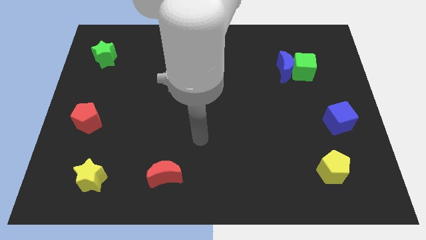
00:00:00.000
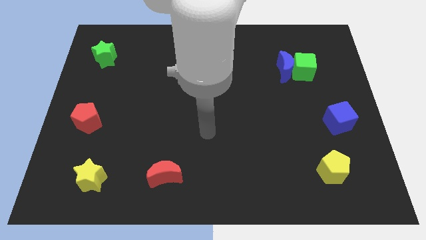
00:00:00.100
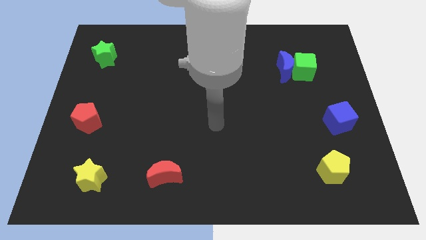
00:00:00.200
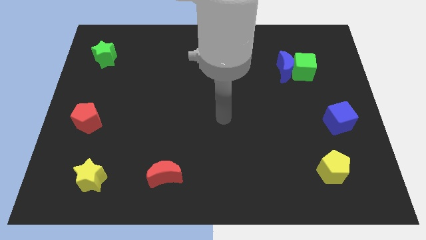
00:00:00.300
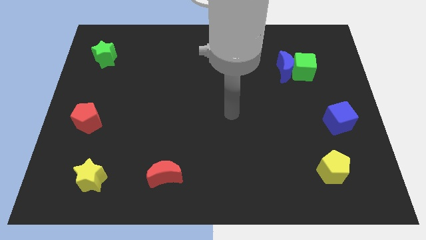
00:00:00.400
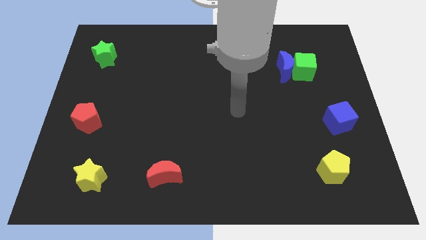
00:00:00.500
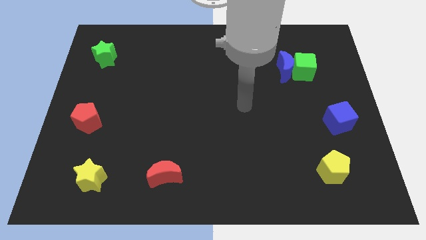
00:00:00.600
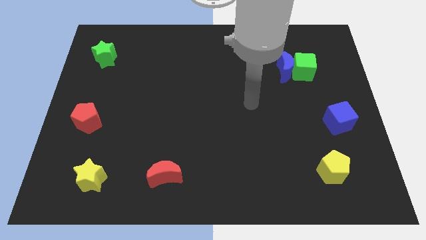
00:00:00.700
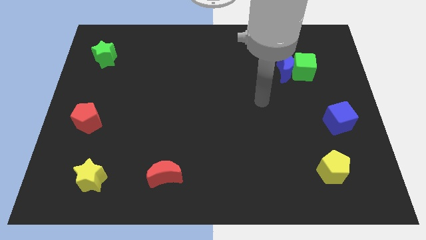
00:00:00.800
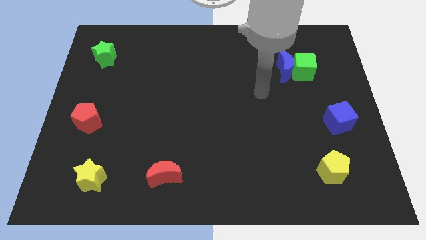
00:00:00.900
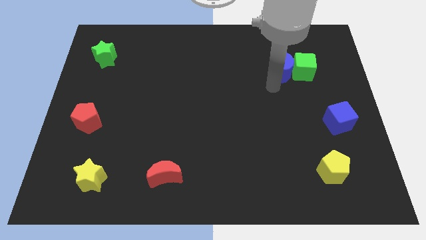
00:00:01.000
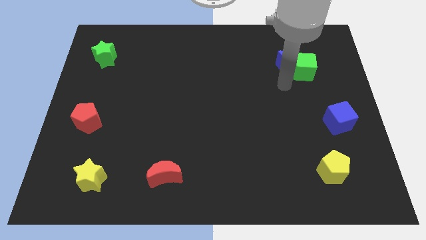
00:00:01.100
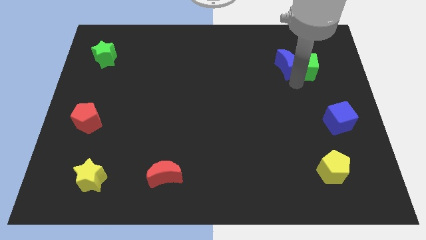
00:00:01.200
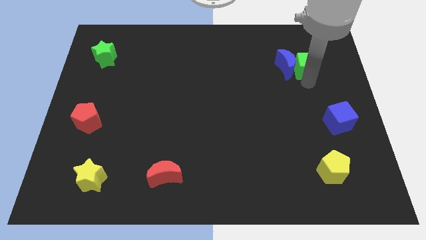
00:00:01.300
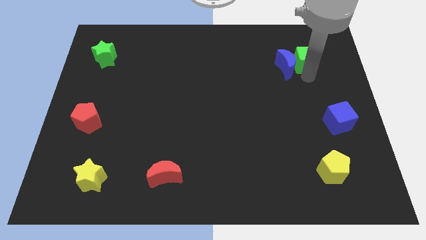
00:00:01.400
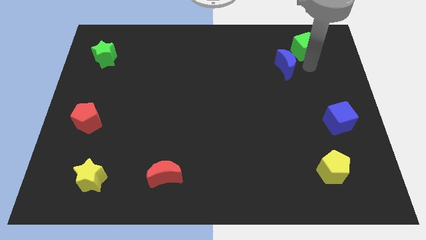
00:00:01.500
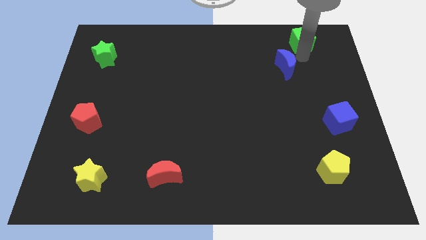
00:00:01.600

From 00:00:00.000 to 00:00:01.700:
move the blue moon away from the green cube

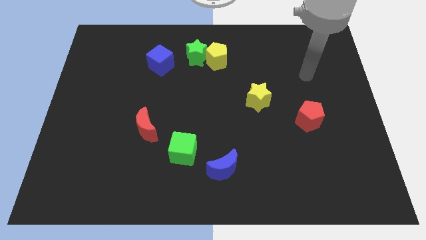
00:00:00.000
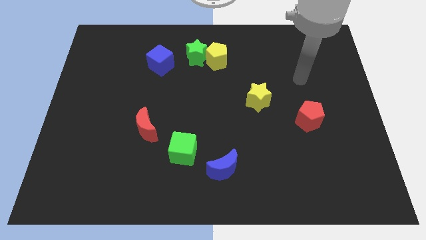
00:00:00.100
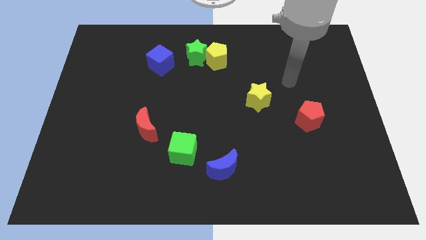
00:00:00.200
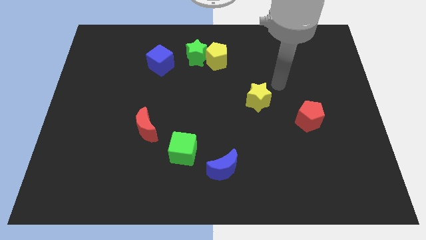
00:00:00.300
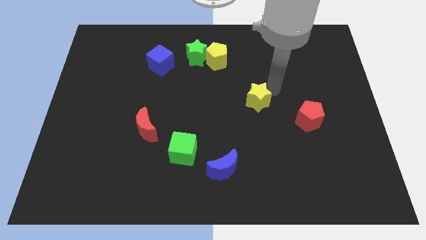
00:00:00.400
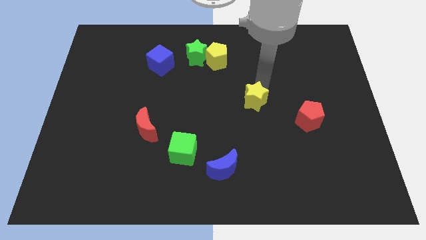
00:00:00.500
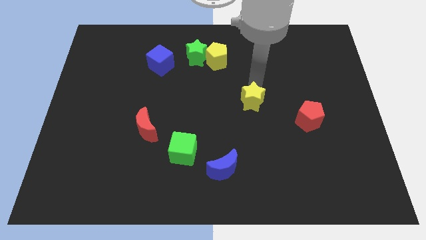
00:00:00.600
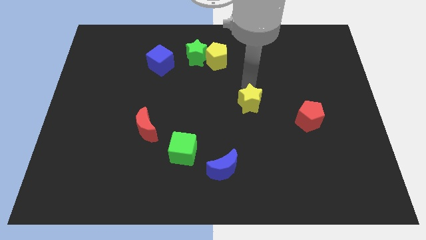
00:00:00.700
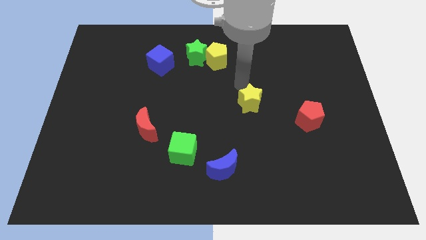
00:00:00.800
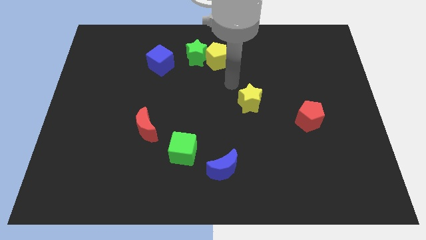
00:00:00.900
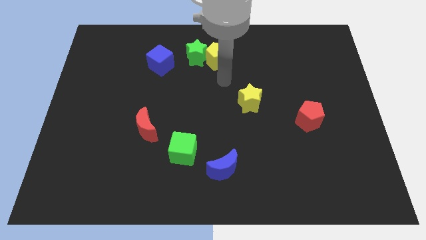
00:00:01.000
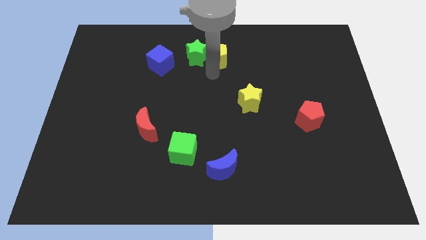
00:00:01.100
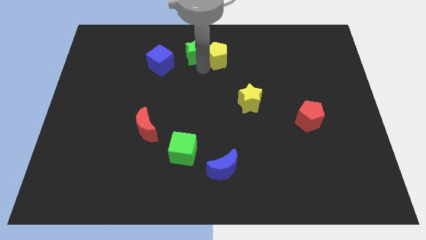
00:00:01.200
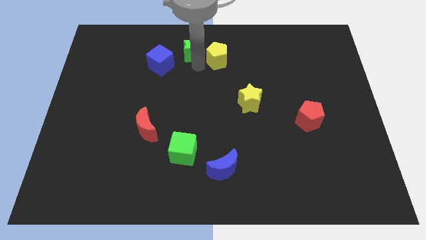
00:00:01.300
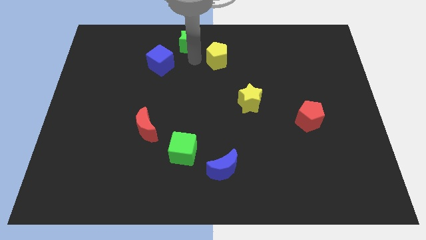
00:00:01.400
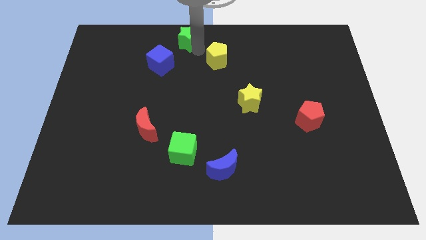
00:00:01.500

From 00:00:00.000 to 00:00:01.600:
move the yellow pentagon away from the green star

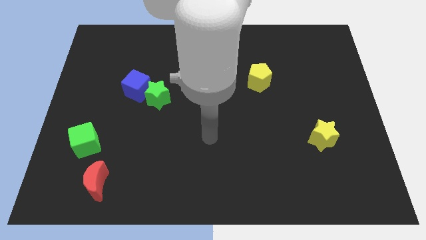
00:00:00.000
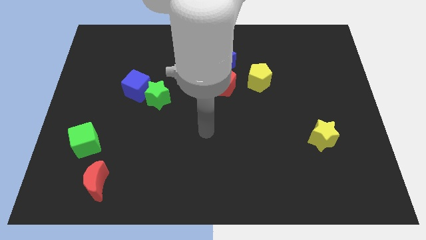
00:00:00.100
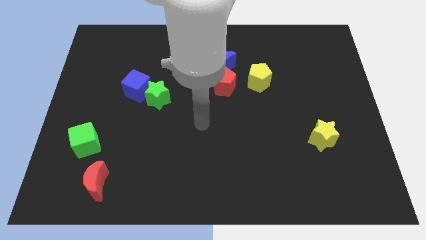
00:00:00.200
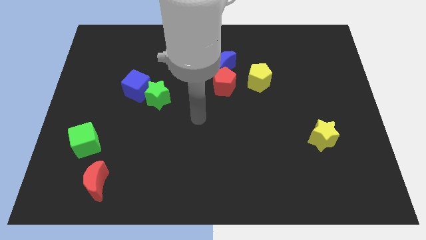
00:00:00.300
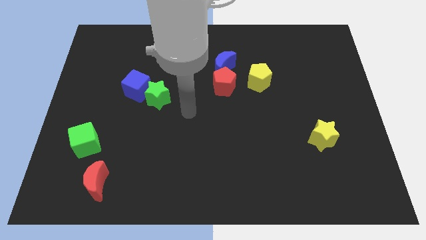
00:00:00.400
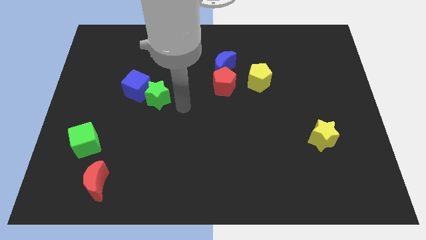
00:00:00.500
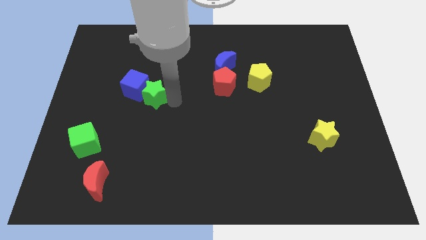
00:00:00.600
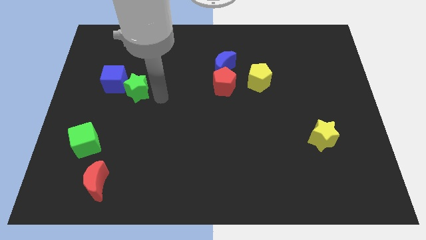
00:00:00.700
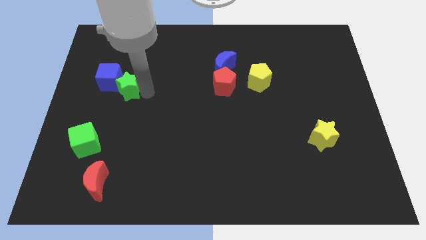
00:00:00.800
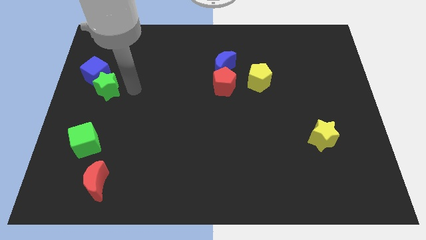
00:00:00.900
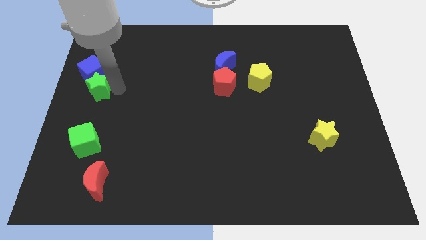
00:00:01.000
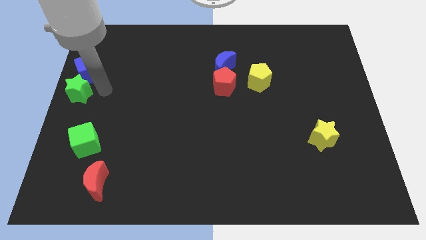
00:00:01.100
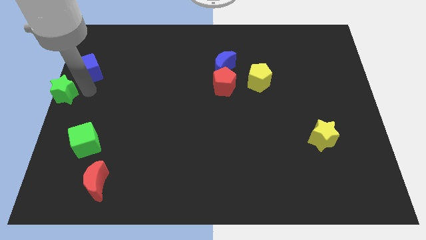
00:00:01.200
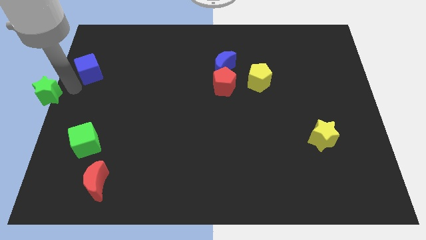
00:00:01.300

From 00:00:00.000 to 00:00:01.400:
move the blue cube away from the green star

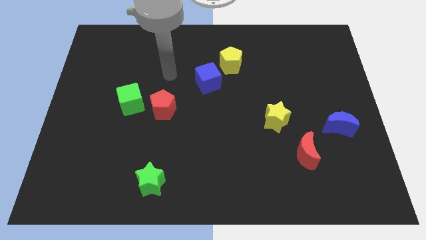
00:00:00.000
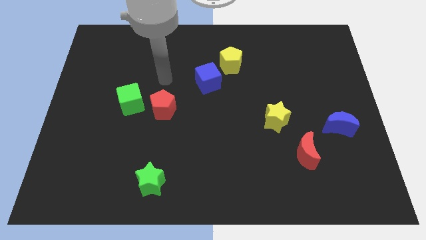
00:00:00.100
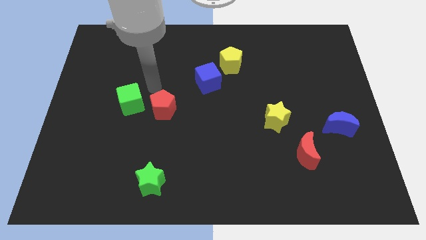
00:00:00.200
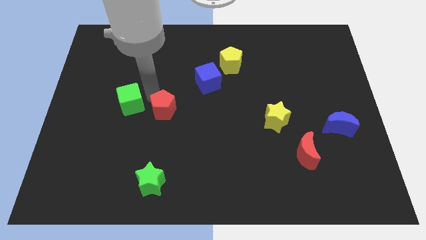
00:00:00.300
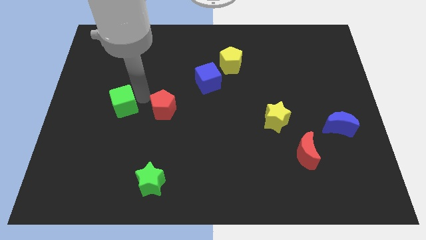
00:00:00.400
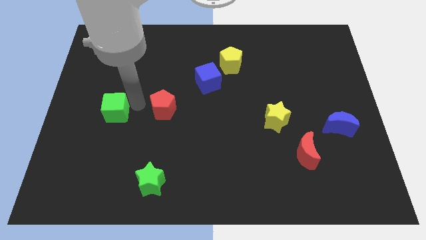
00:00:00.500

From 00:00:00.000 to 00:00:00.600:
move the red pentagon away from the green cube

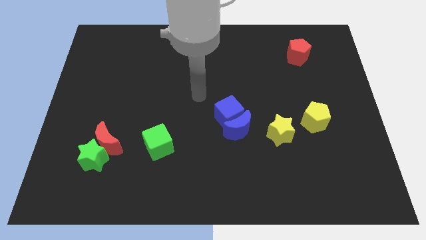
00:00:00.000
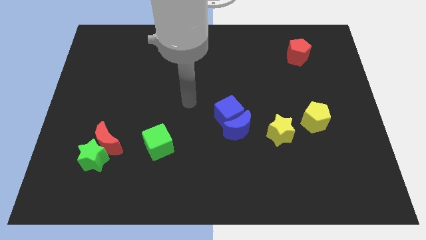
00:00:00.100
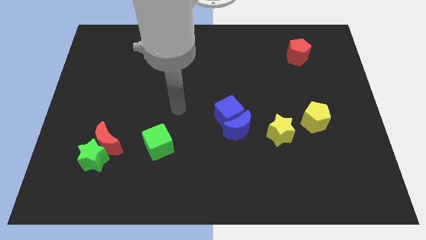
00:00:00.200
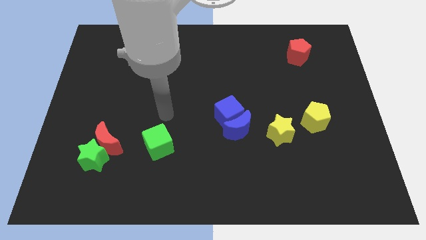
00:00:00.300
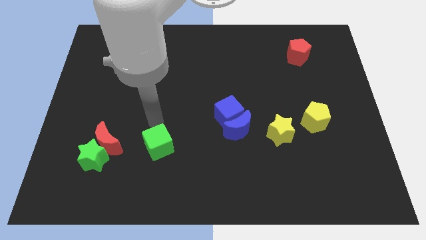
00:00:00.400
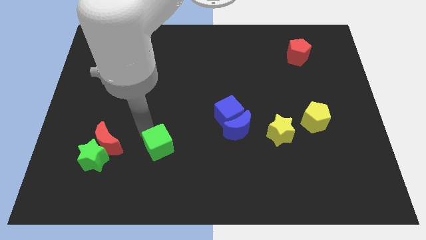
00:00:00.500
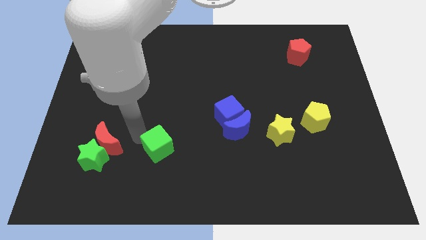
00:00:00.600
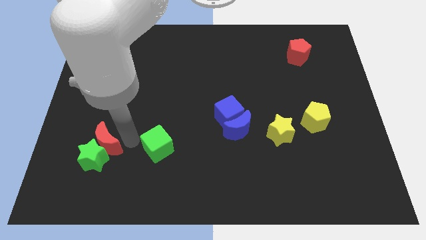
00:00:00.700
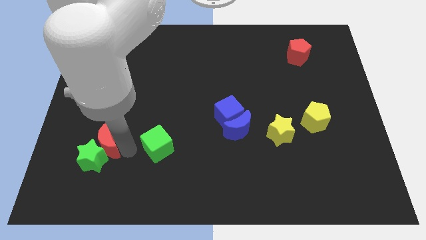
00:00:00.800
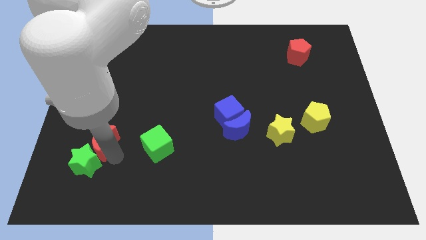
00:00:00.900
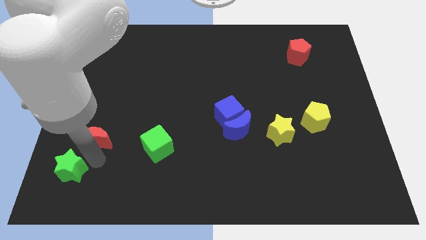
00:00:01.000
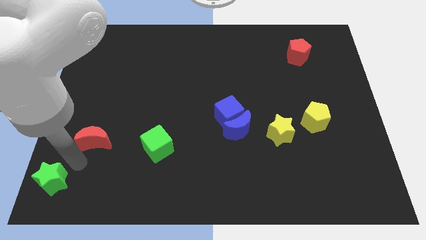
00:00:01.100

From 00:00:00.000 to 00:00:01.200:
separate the red moon from the green star

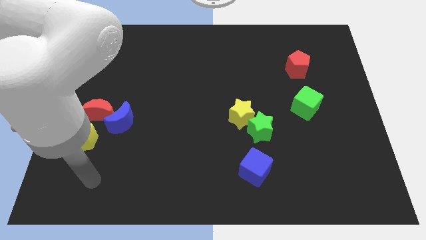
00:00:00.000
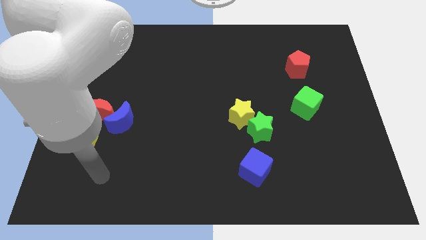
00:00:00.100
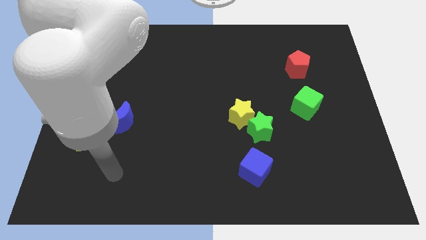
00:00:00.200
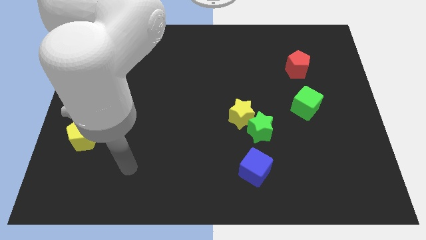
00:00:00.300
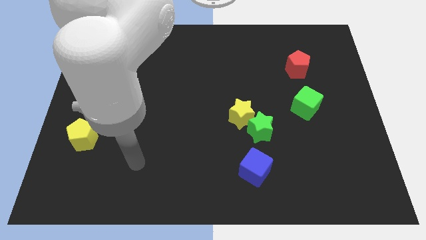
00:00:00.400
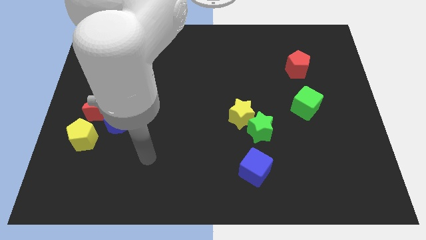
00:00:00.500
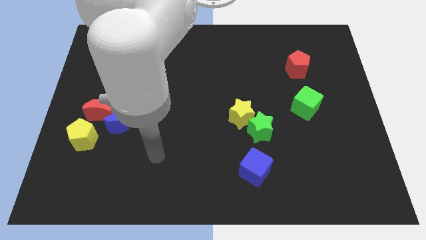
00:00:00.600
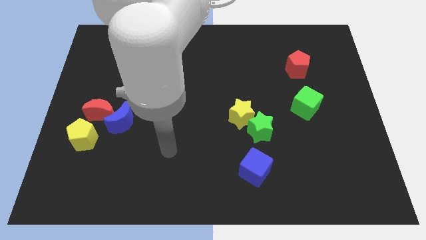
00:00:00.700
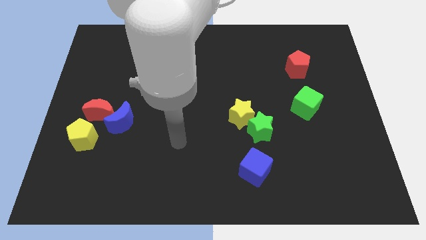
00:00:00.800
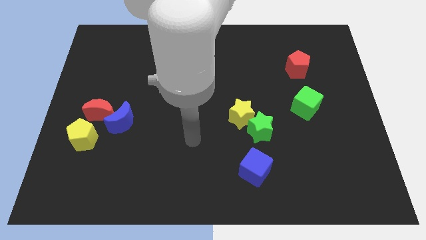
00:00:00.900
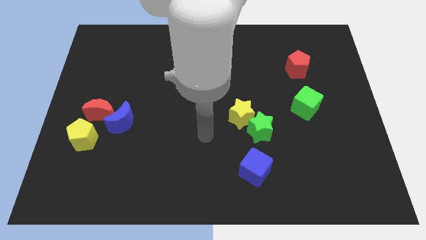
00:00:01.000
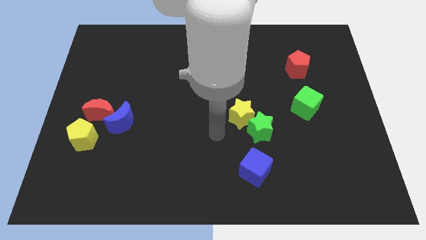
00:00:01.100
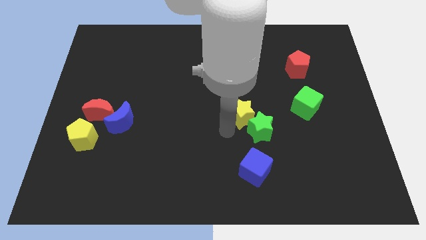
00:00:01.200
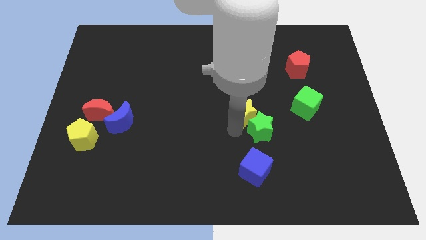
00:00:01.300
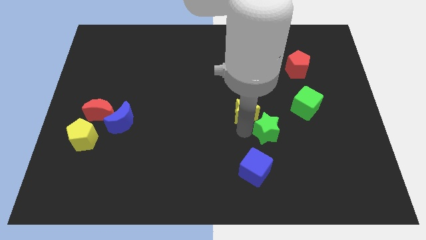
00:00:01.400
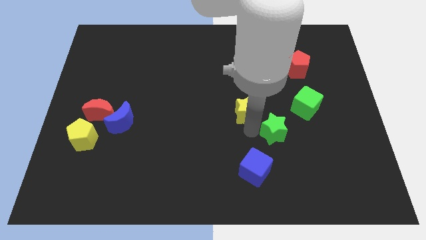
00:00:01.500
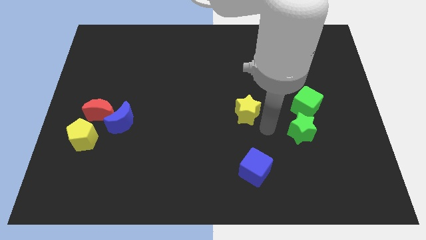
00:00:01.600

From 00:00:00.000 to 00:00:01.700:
move the yellow star away from the green star

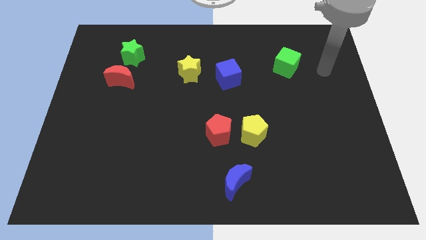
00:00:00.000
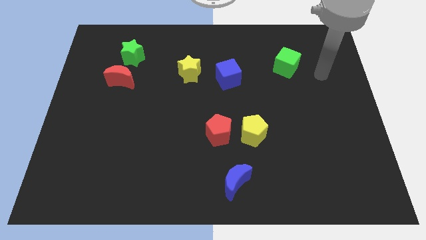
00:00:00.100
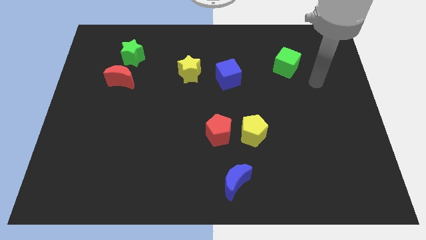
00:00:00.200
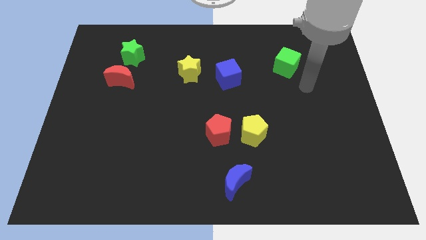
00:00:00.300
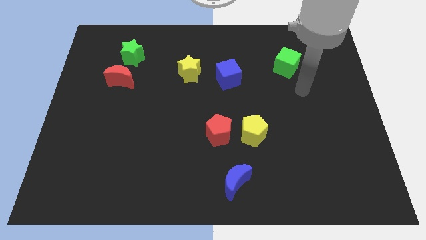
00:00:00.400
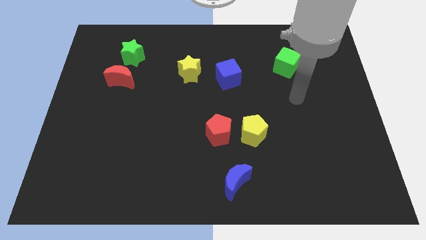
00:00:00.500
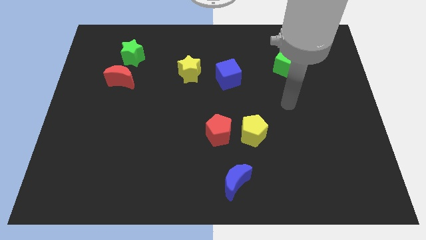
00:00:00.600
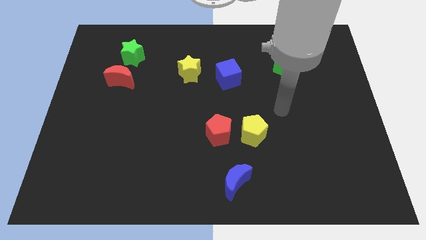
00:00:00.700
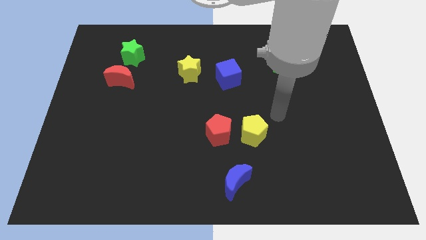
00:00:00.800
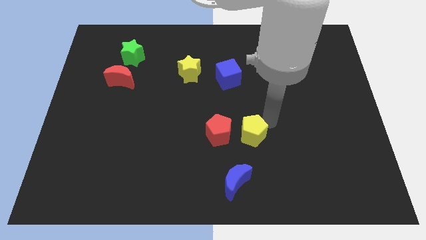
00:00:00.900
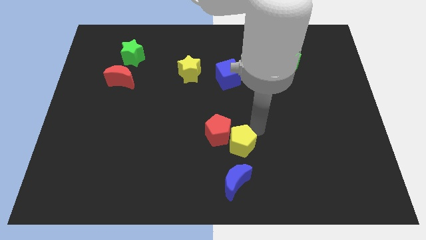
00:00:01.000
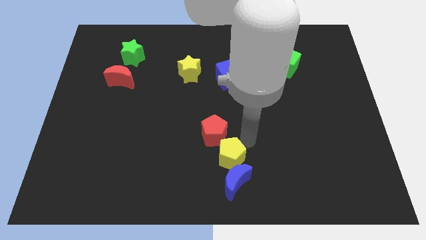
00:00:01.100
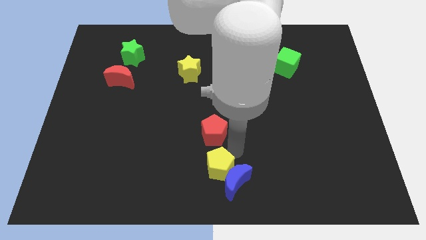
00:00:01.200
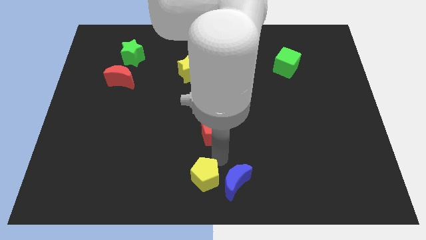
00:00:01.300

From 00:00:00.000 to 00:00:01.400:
move the red pentagon away from the yellow pentagon
